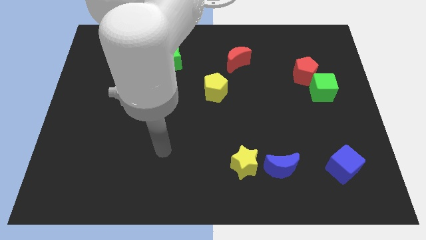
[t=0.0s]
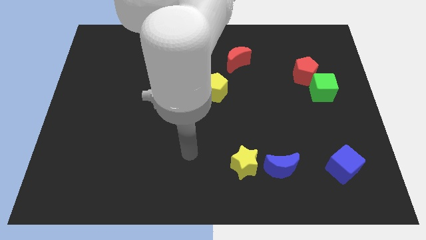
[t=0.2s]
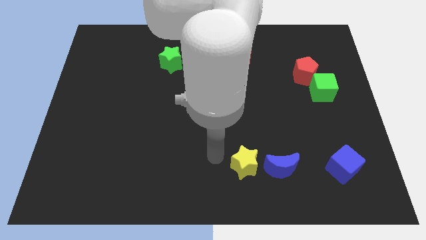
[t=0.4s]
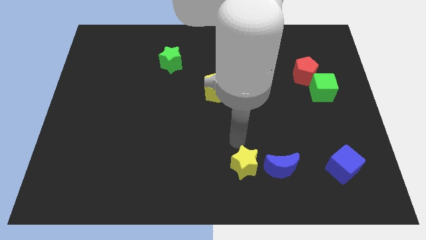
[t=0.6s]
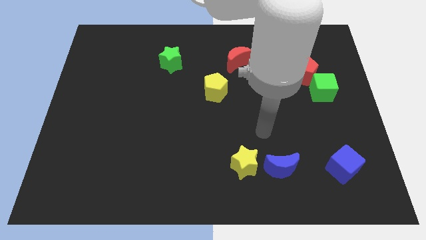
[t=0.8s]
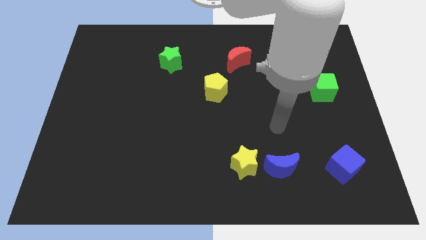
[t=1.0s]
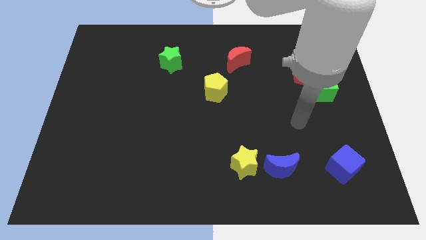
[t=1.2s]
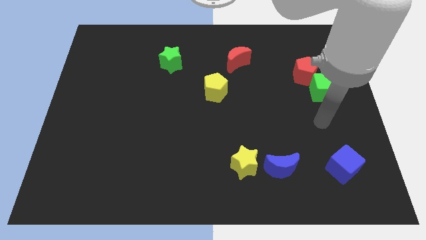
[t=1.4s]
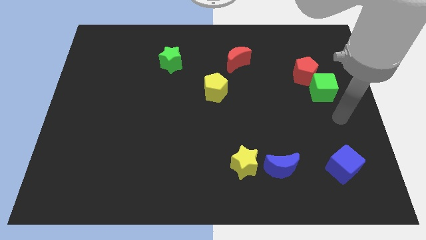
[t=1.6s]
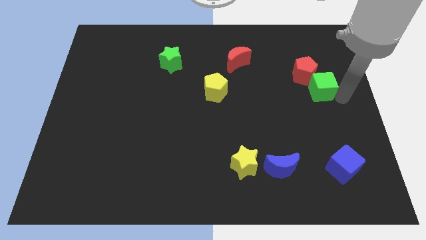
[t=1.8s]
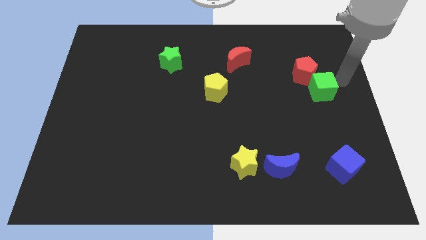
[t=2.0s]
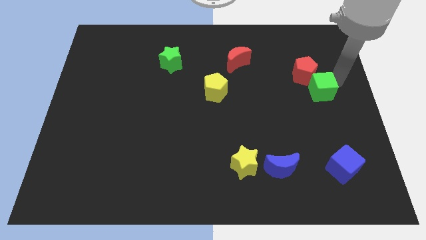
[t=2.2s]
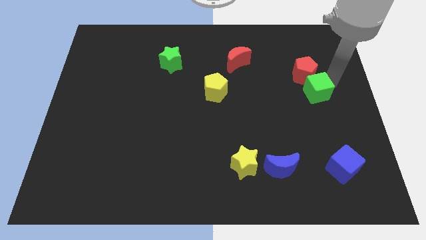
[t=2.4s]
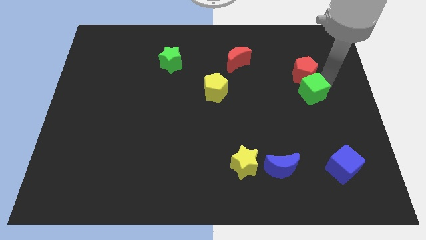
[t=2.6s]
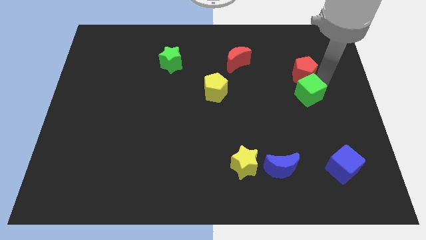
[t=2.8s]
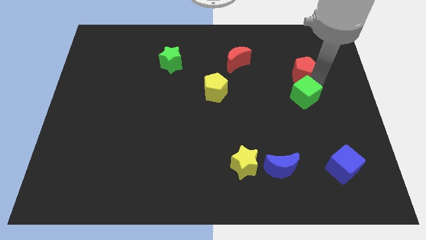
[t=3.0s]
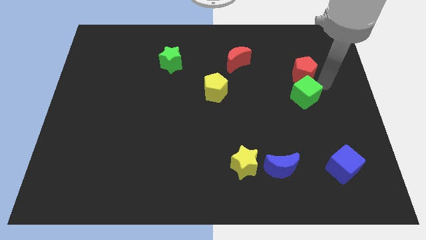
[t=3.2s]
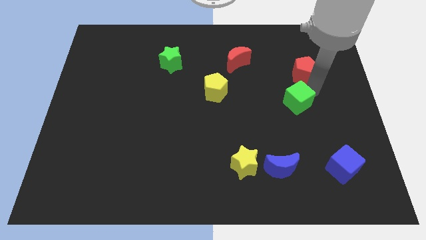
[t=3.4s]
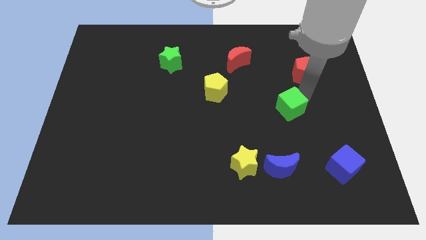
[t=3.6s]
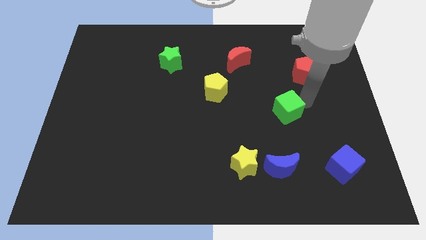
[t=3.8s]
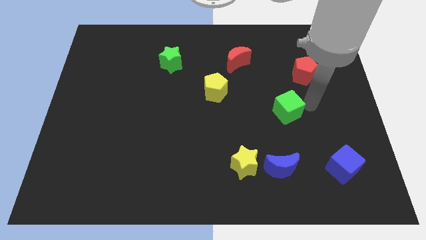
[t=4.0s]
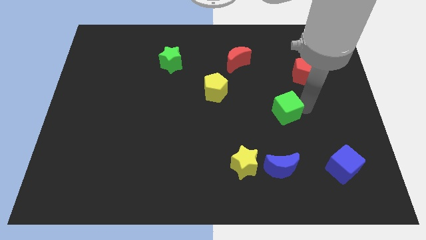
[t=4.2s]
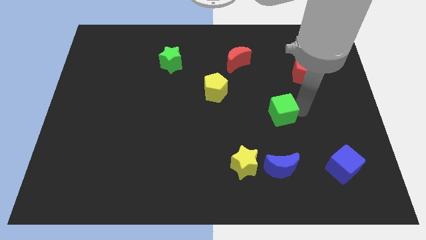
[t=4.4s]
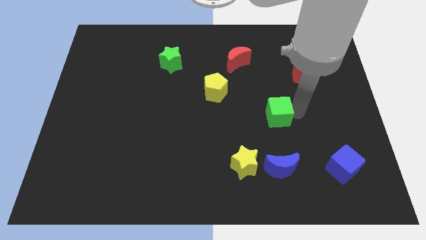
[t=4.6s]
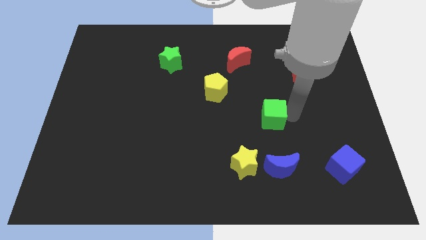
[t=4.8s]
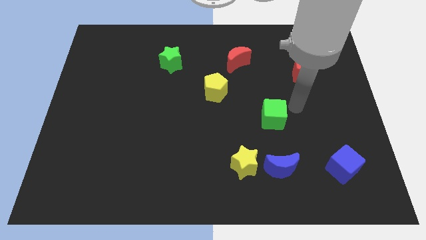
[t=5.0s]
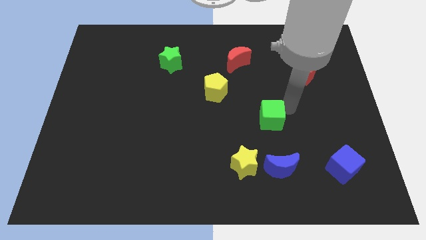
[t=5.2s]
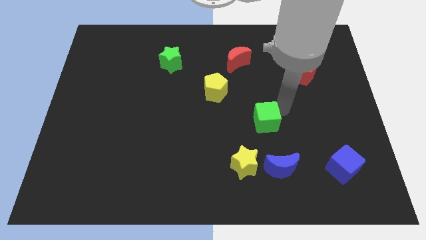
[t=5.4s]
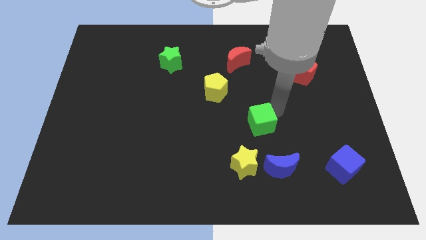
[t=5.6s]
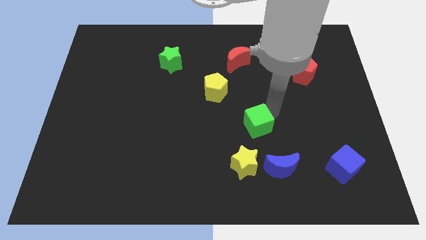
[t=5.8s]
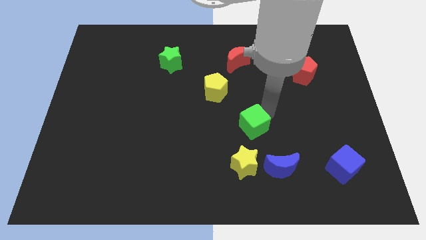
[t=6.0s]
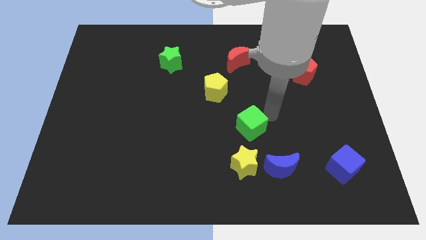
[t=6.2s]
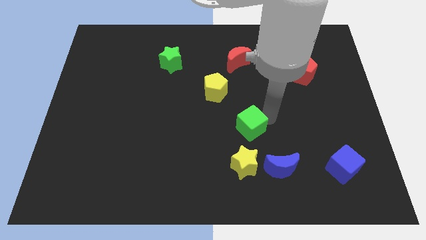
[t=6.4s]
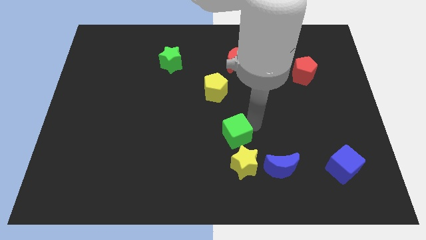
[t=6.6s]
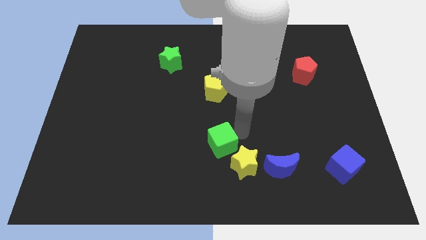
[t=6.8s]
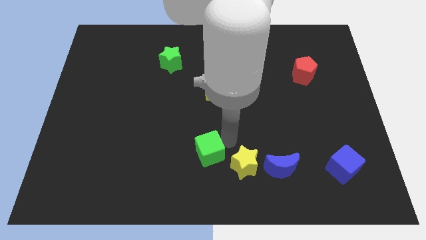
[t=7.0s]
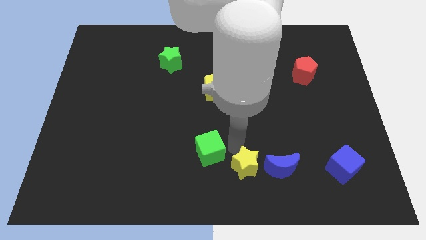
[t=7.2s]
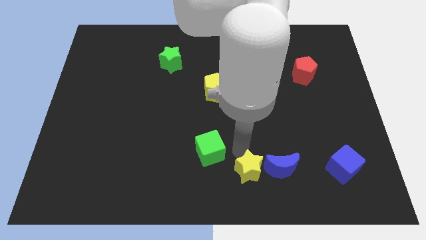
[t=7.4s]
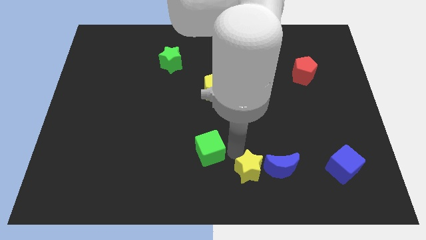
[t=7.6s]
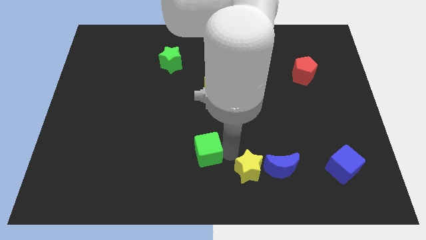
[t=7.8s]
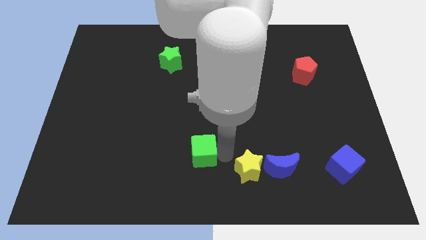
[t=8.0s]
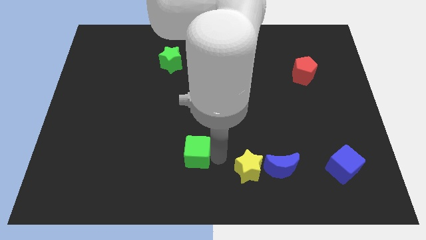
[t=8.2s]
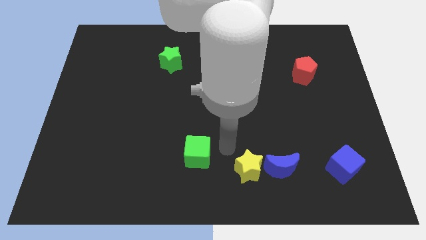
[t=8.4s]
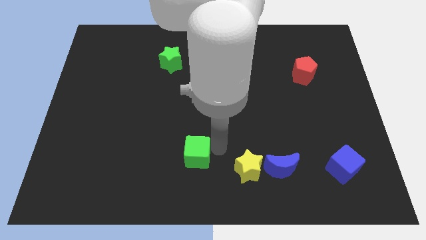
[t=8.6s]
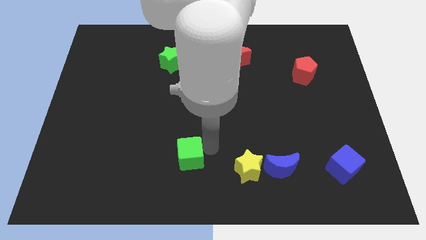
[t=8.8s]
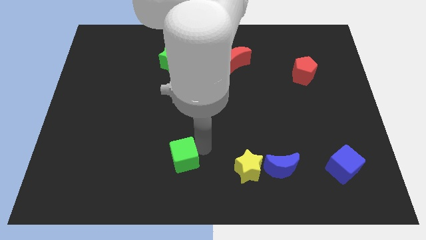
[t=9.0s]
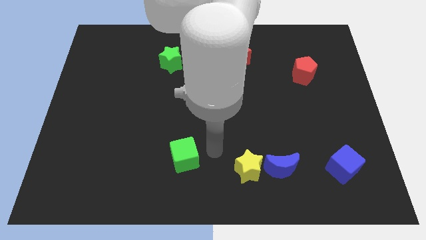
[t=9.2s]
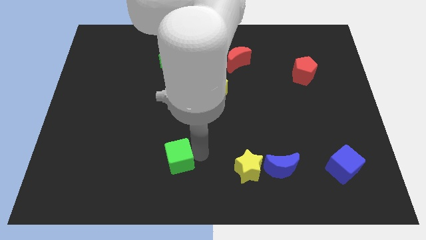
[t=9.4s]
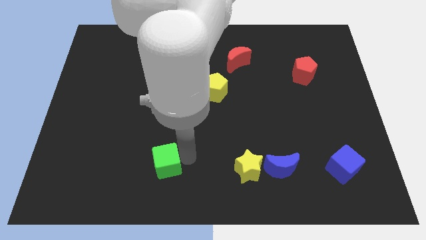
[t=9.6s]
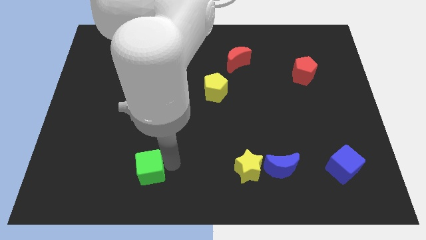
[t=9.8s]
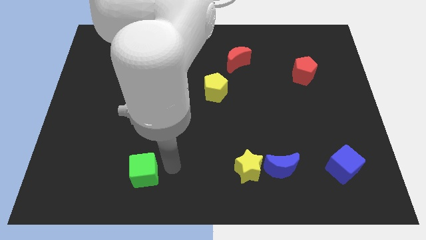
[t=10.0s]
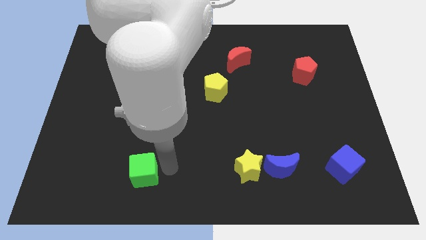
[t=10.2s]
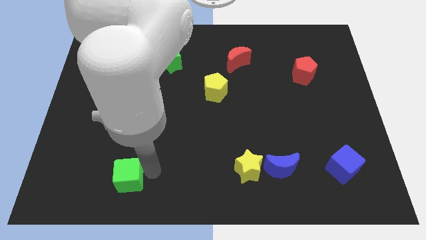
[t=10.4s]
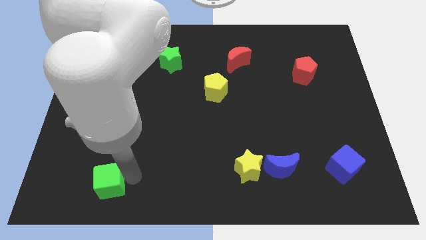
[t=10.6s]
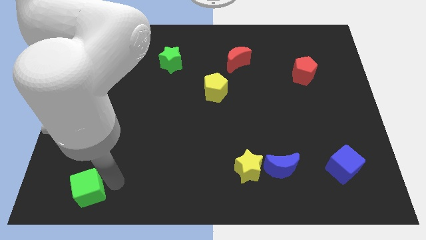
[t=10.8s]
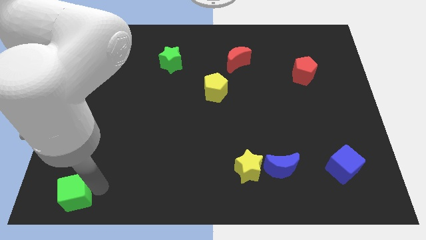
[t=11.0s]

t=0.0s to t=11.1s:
slide the green cube to the bottom left of the board

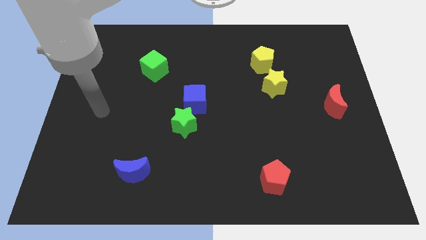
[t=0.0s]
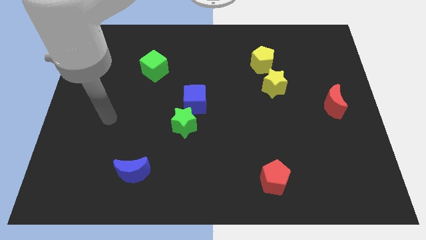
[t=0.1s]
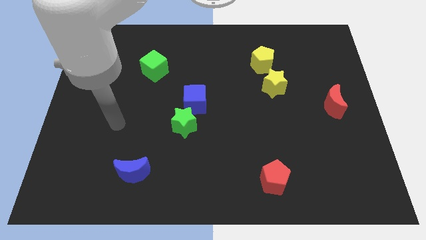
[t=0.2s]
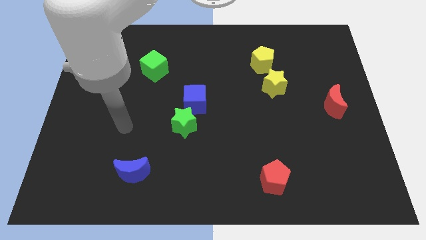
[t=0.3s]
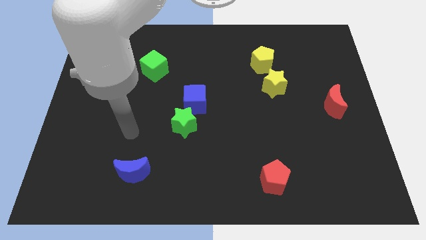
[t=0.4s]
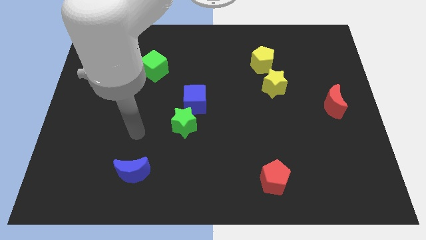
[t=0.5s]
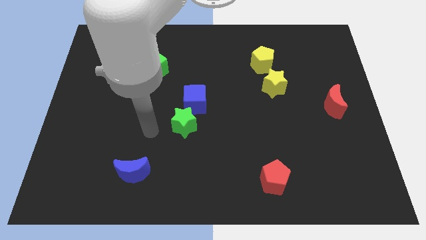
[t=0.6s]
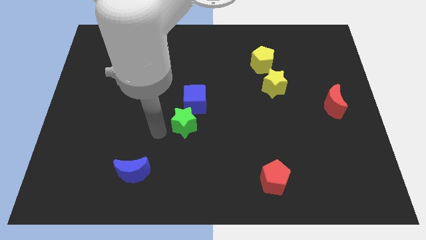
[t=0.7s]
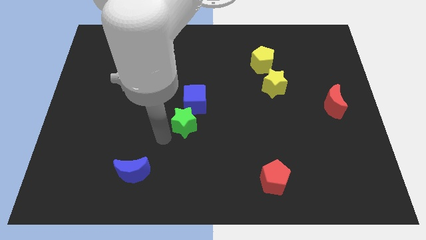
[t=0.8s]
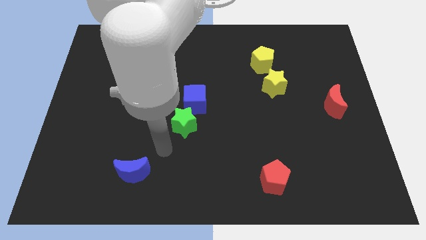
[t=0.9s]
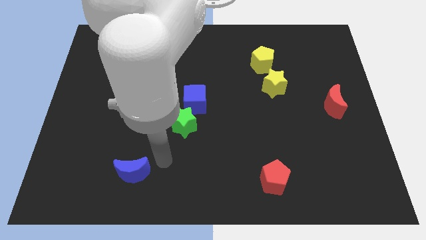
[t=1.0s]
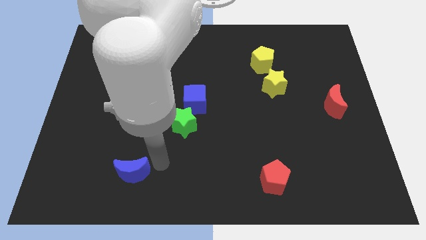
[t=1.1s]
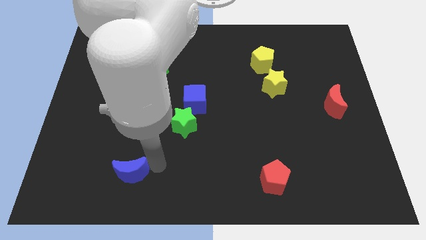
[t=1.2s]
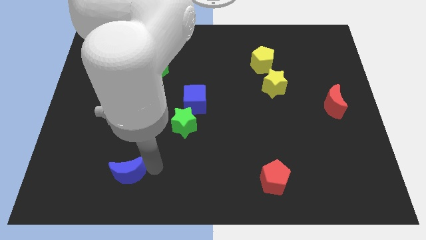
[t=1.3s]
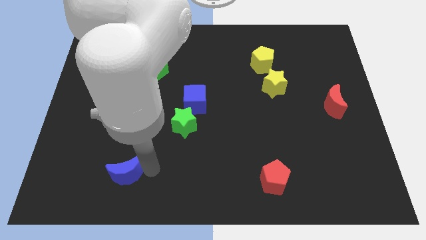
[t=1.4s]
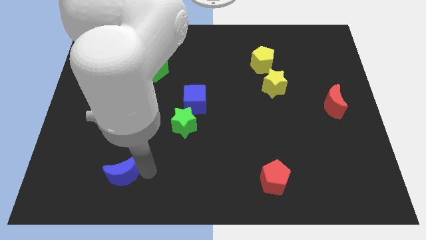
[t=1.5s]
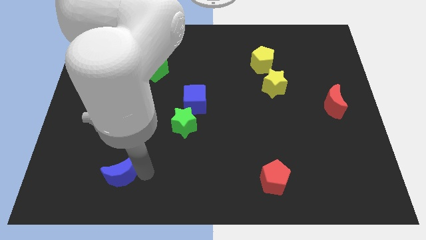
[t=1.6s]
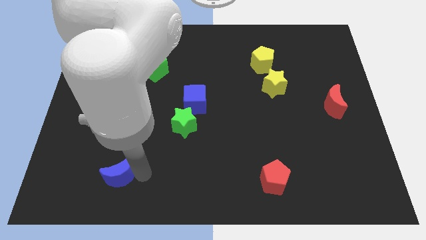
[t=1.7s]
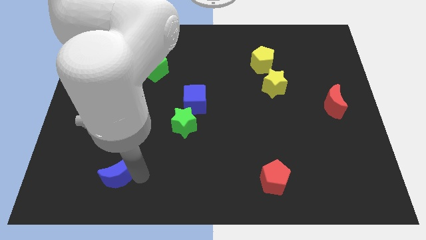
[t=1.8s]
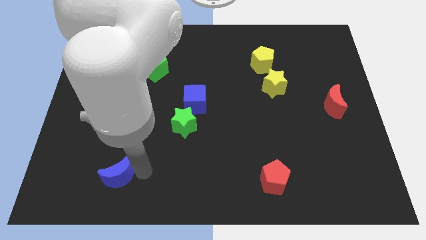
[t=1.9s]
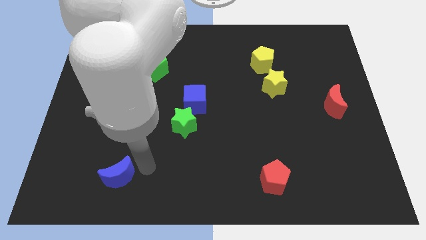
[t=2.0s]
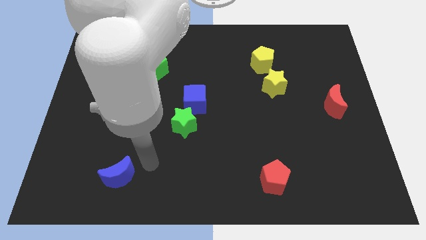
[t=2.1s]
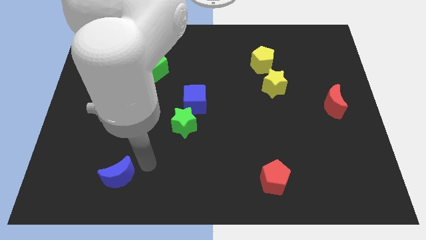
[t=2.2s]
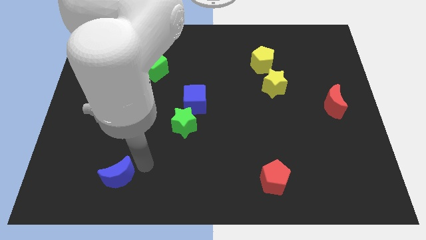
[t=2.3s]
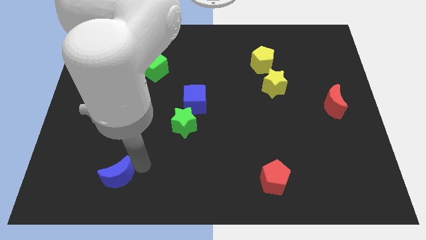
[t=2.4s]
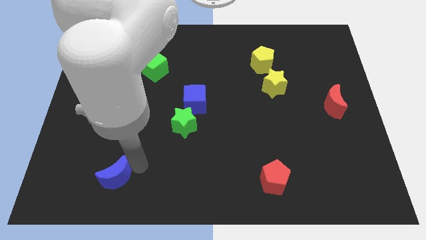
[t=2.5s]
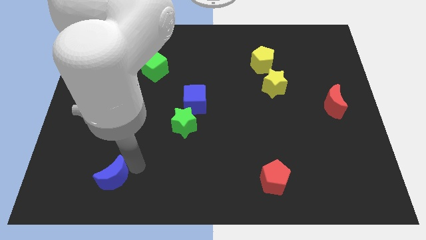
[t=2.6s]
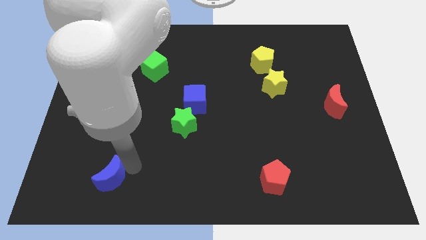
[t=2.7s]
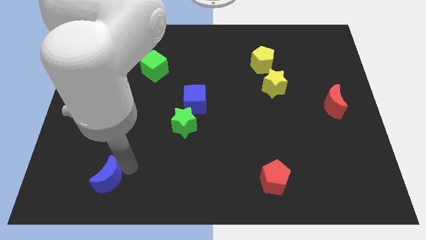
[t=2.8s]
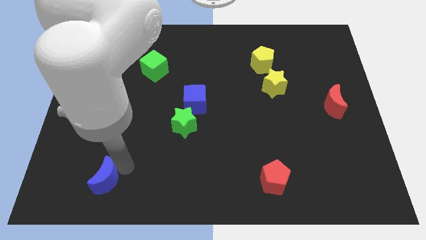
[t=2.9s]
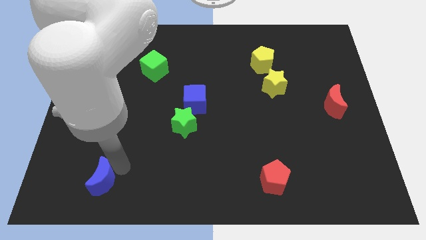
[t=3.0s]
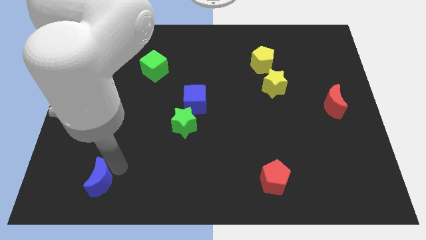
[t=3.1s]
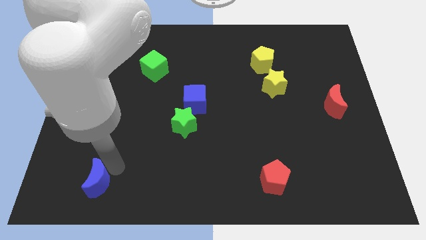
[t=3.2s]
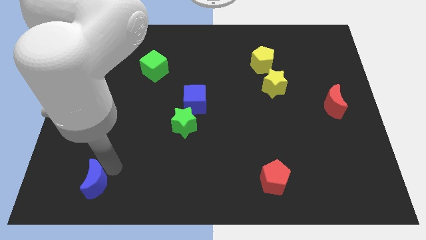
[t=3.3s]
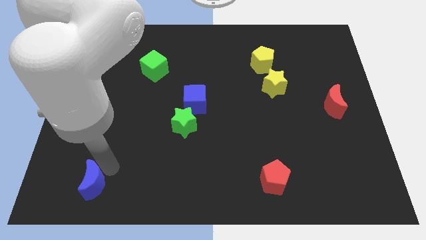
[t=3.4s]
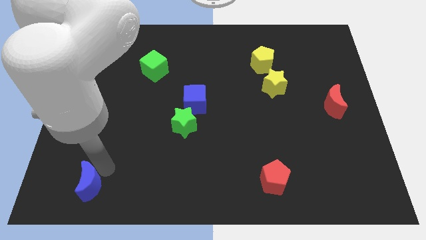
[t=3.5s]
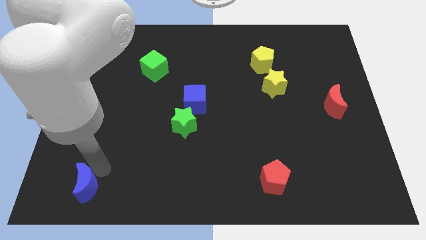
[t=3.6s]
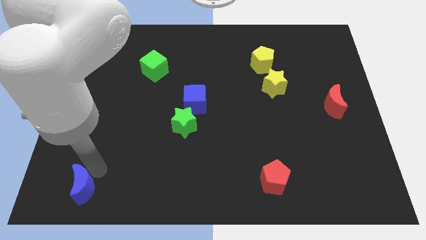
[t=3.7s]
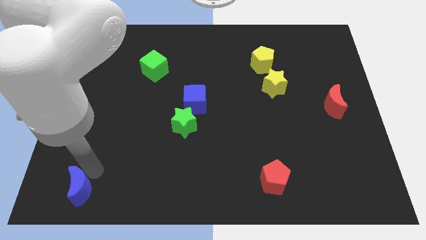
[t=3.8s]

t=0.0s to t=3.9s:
push the blue moon to the lower left corner
